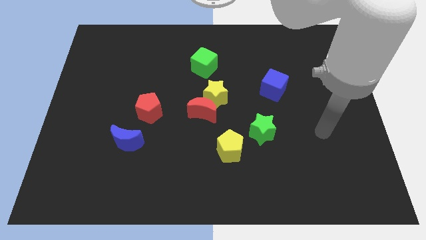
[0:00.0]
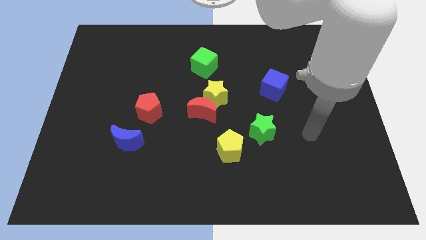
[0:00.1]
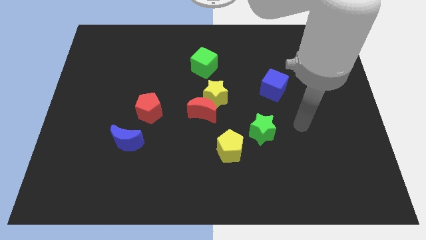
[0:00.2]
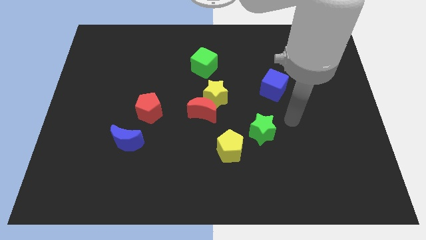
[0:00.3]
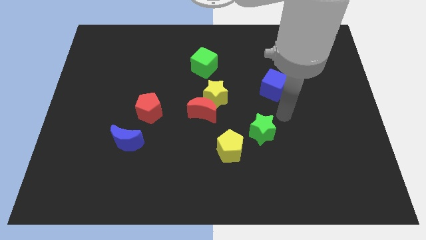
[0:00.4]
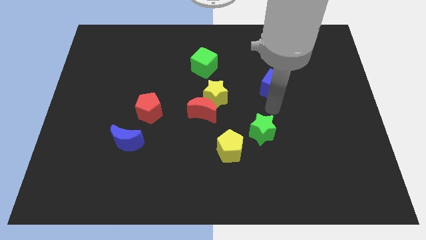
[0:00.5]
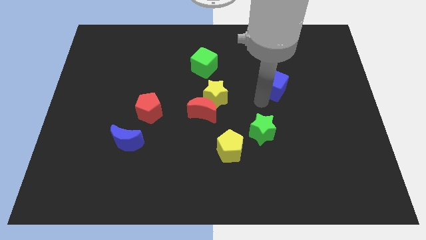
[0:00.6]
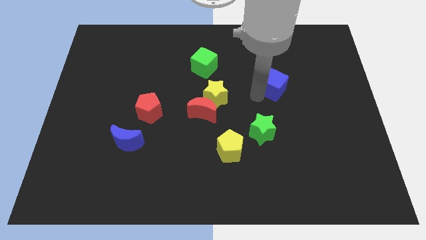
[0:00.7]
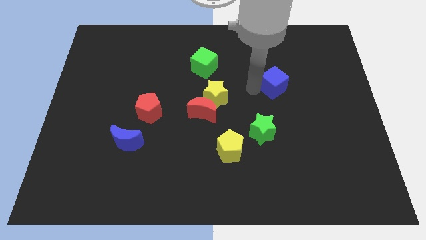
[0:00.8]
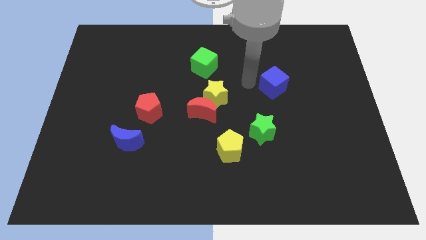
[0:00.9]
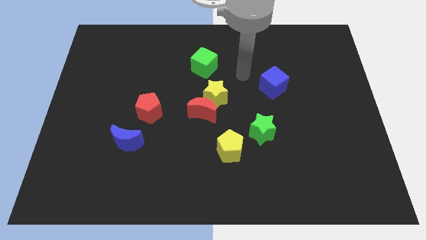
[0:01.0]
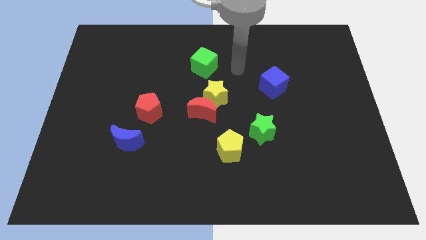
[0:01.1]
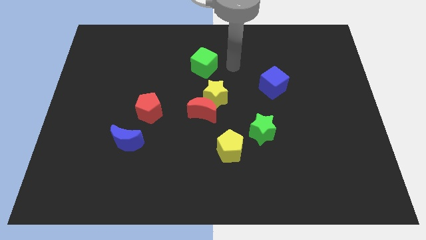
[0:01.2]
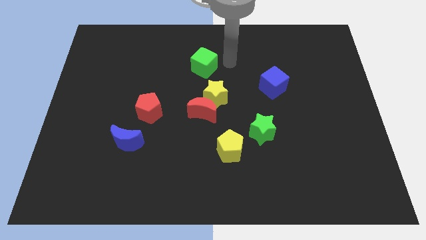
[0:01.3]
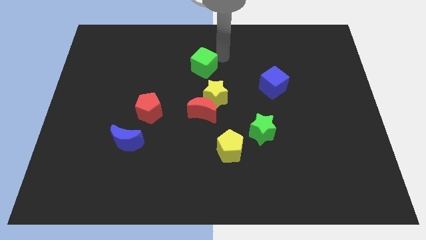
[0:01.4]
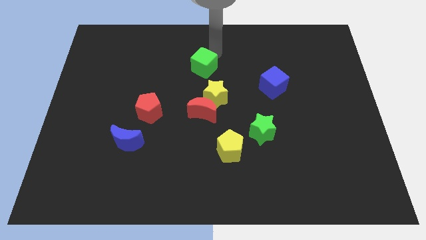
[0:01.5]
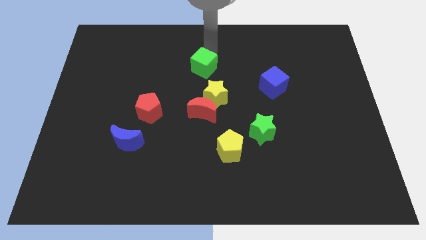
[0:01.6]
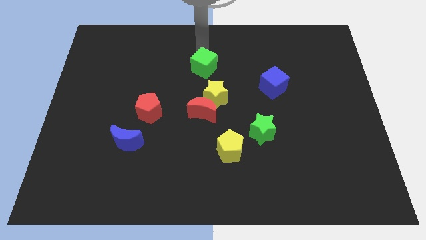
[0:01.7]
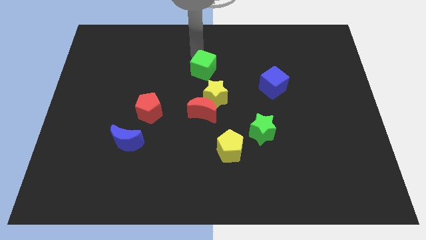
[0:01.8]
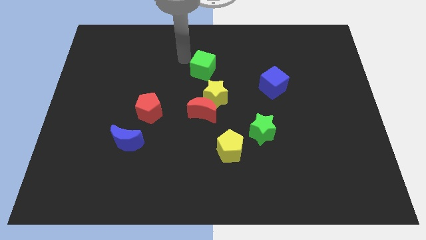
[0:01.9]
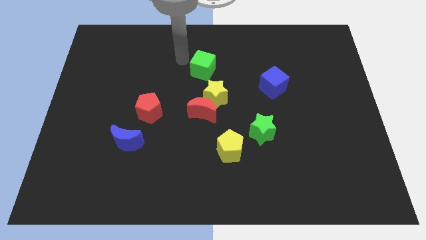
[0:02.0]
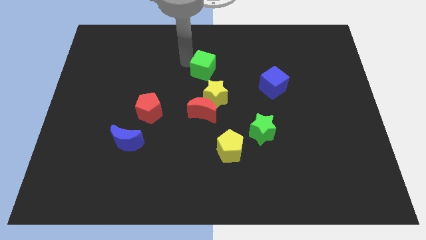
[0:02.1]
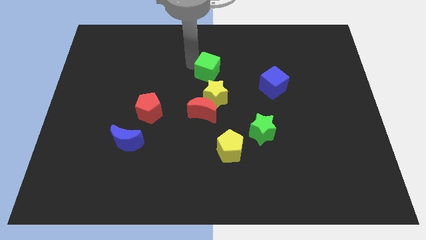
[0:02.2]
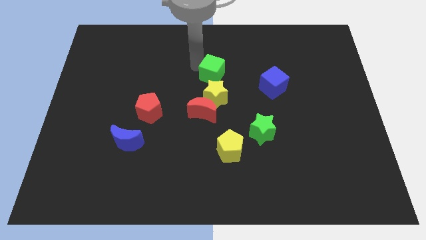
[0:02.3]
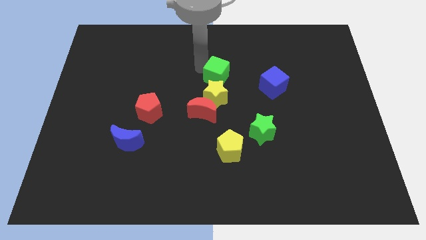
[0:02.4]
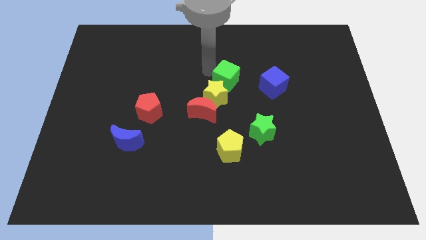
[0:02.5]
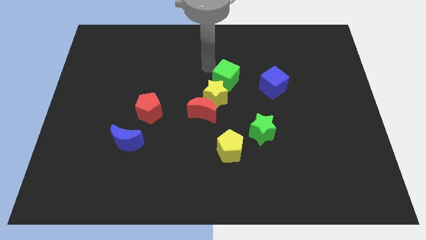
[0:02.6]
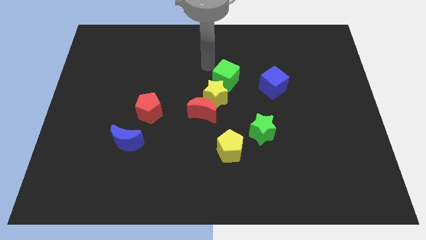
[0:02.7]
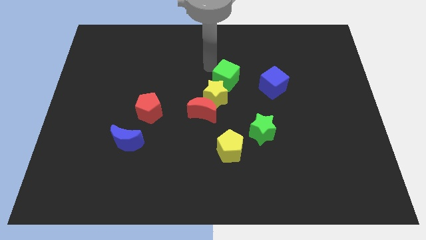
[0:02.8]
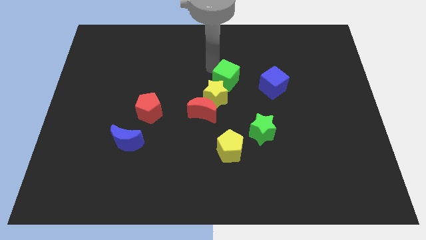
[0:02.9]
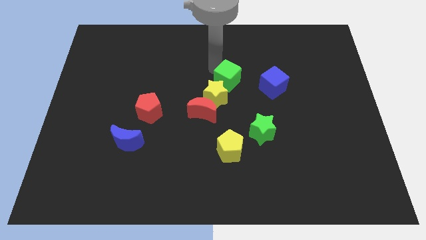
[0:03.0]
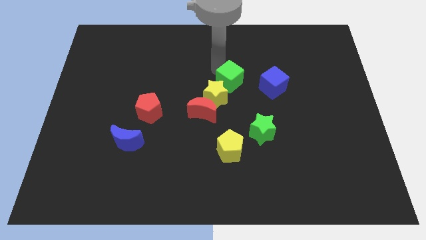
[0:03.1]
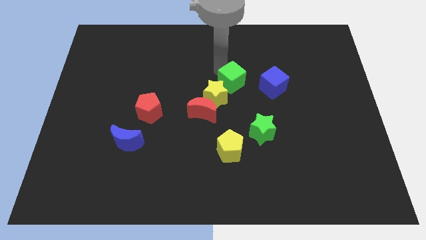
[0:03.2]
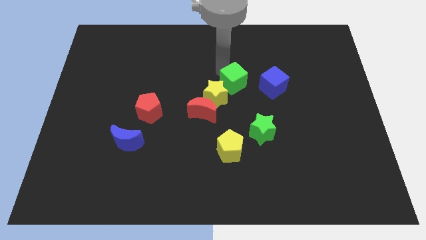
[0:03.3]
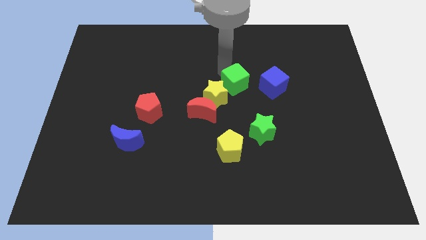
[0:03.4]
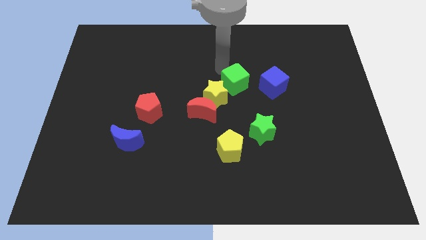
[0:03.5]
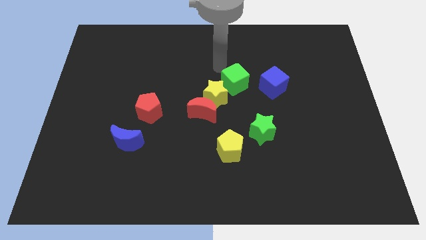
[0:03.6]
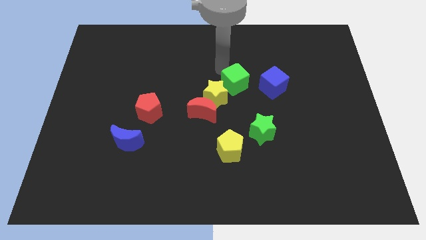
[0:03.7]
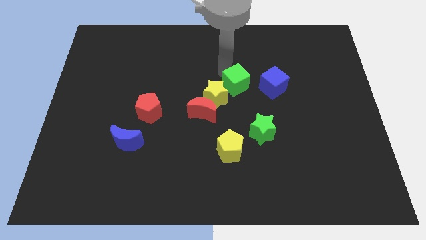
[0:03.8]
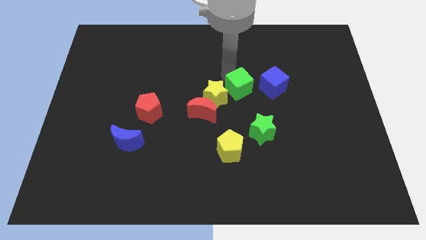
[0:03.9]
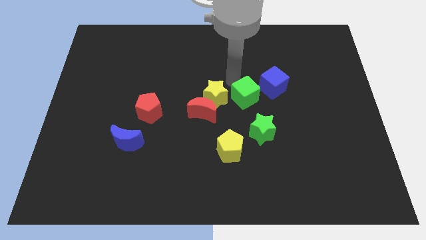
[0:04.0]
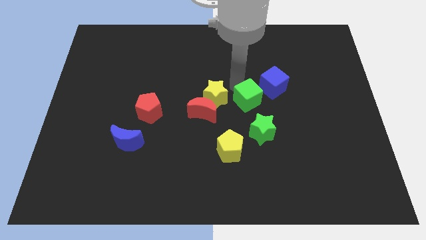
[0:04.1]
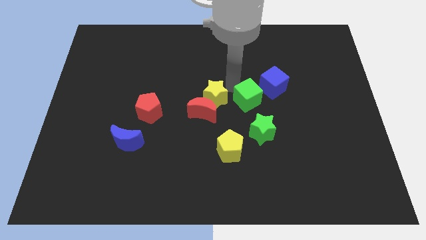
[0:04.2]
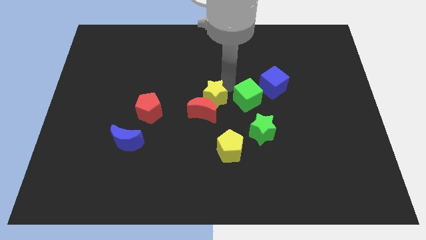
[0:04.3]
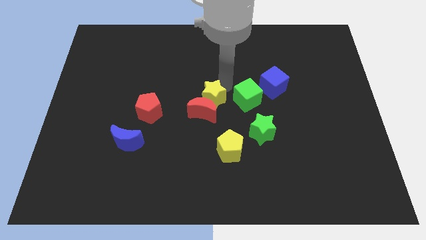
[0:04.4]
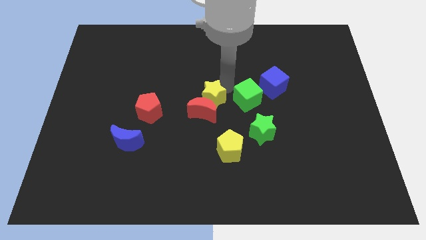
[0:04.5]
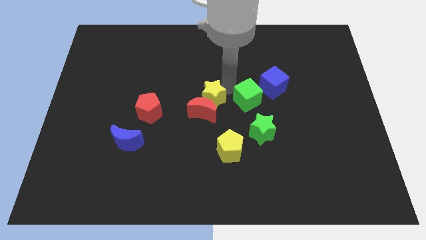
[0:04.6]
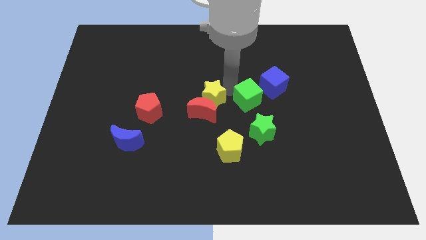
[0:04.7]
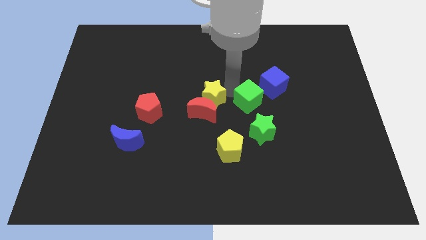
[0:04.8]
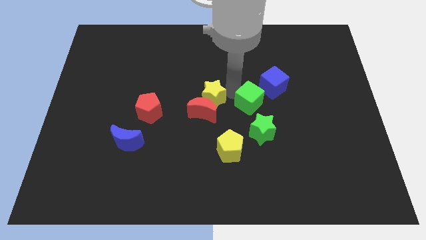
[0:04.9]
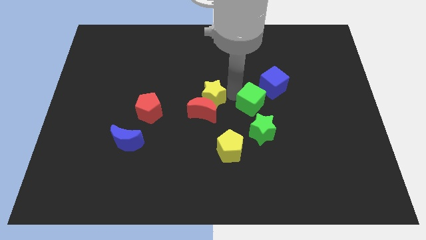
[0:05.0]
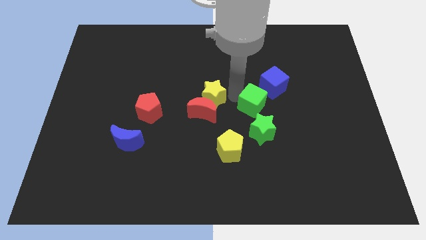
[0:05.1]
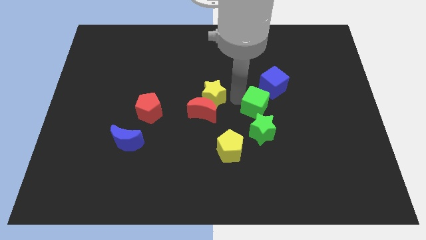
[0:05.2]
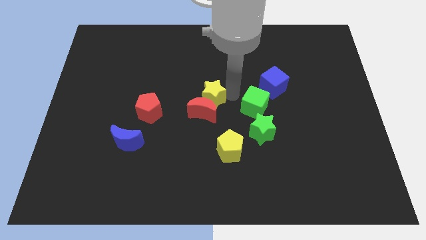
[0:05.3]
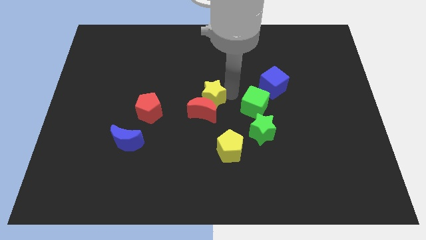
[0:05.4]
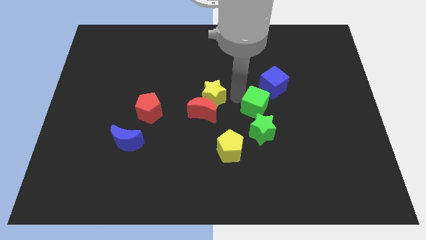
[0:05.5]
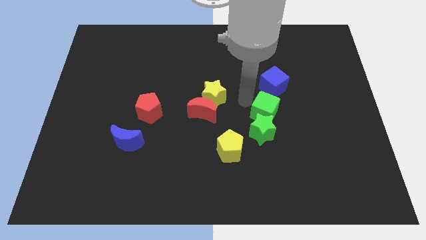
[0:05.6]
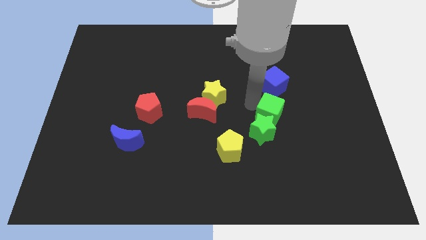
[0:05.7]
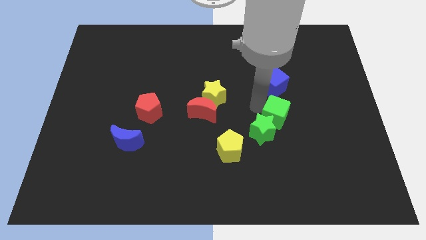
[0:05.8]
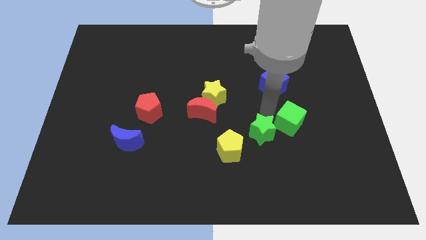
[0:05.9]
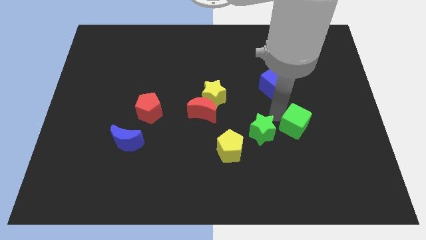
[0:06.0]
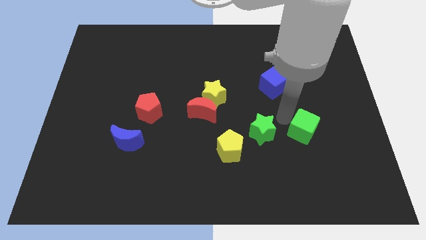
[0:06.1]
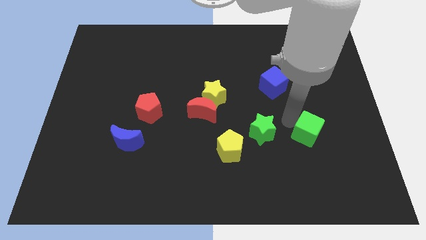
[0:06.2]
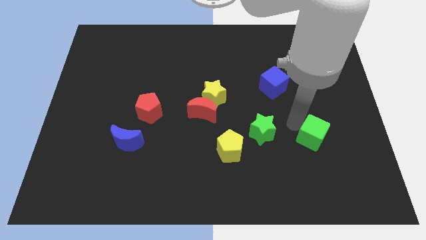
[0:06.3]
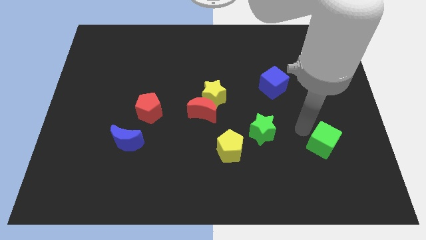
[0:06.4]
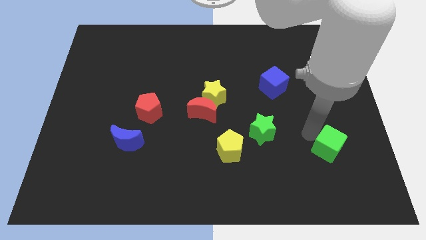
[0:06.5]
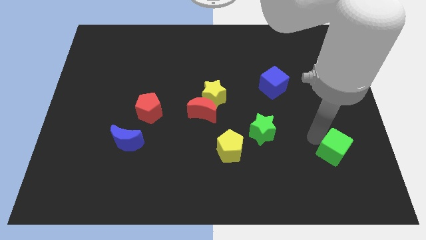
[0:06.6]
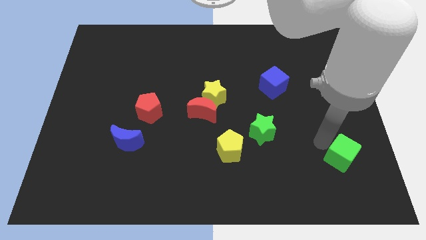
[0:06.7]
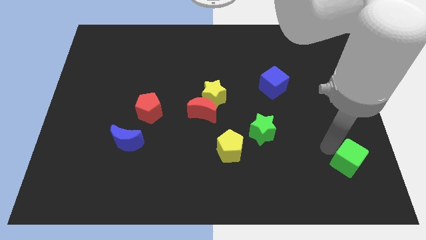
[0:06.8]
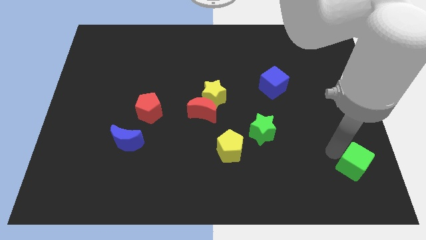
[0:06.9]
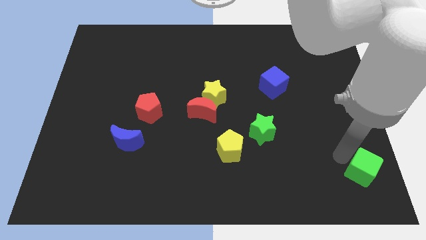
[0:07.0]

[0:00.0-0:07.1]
move the green cube to the bottom right of the board
